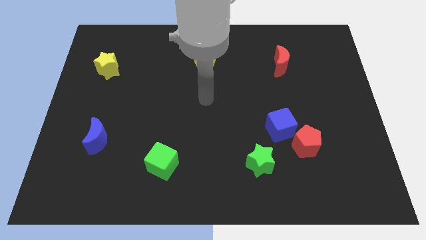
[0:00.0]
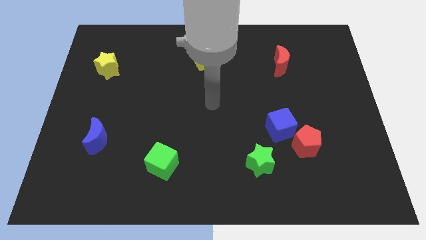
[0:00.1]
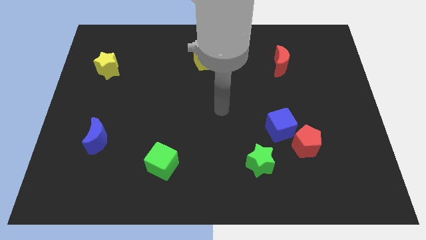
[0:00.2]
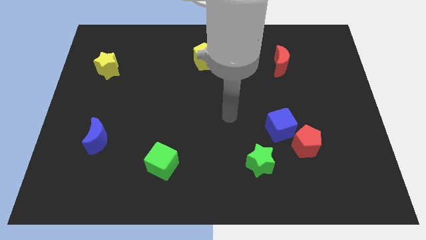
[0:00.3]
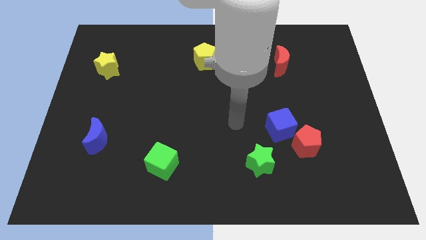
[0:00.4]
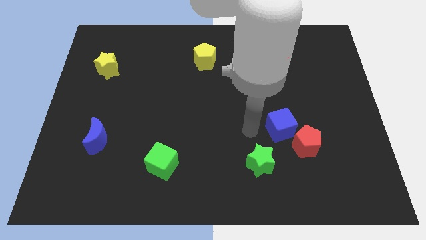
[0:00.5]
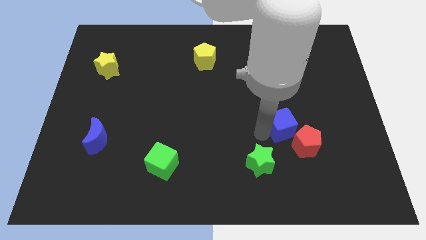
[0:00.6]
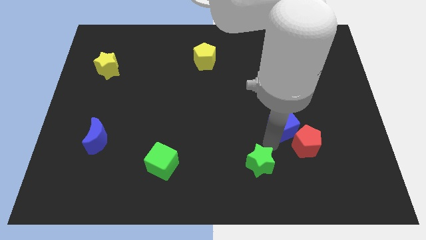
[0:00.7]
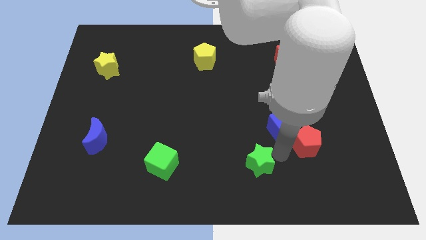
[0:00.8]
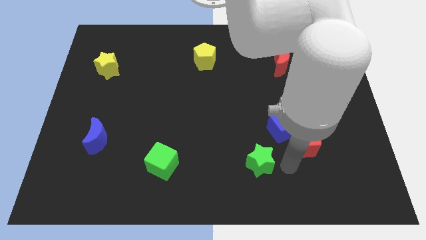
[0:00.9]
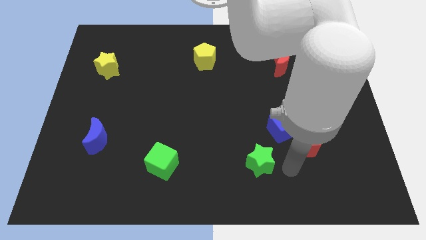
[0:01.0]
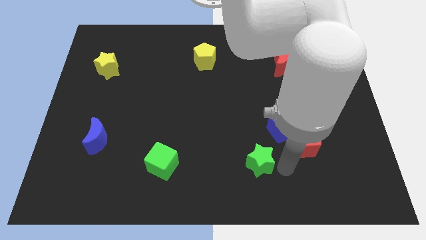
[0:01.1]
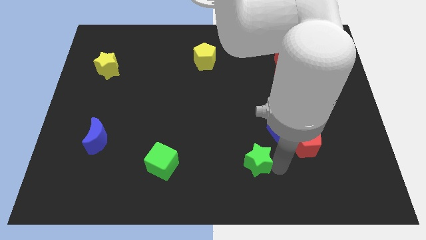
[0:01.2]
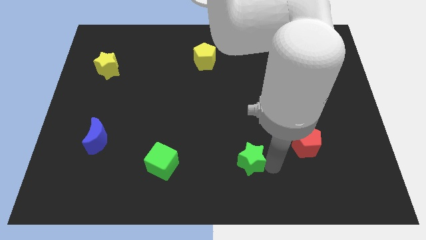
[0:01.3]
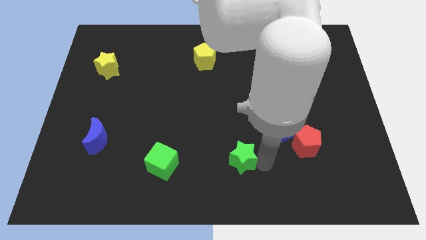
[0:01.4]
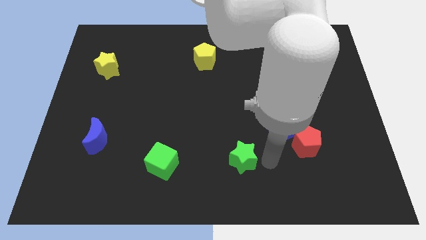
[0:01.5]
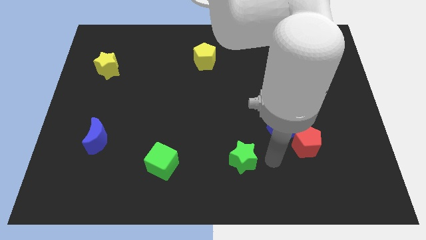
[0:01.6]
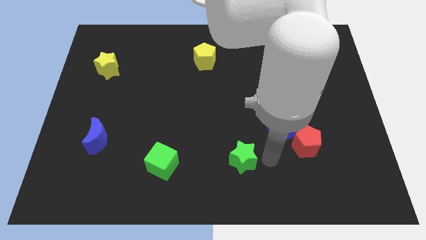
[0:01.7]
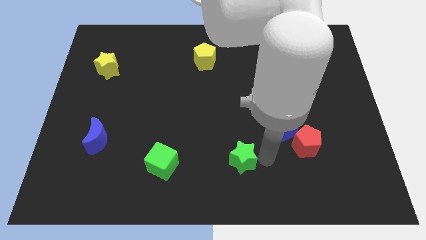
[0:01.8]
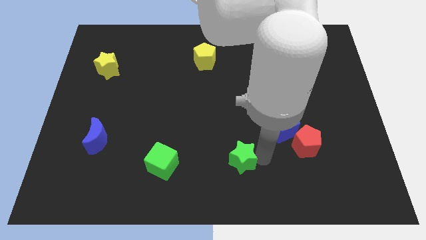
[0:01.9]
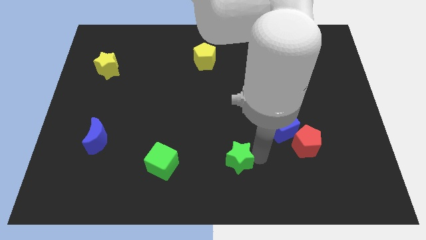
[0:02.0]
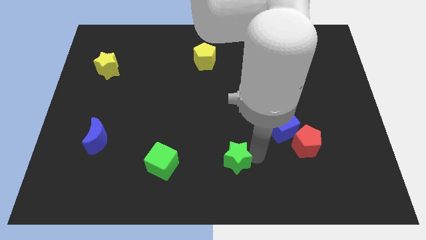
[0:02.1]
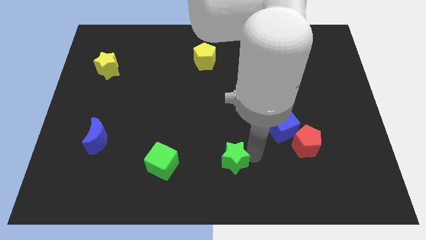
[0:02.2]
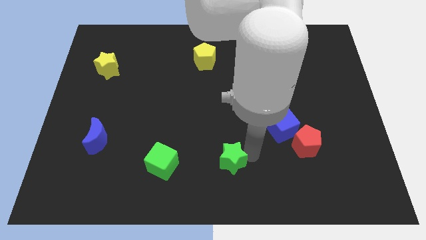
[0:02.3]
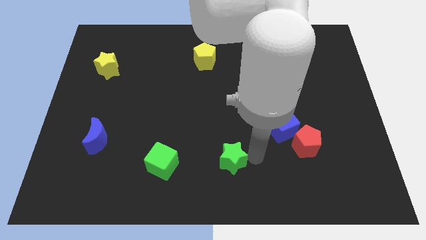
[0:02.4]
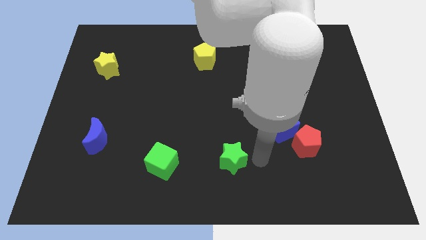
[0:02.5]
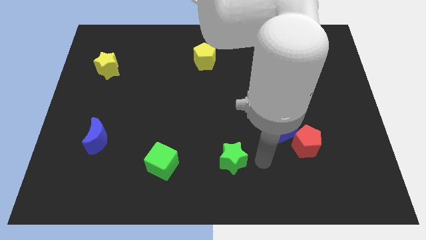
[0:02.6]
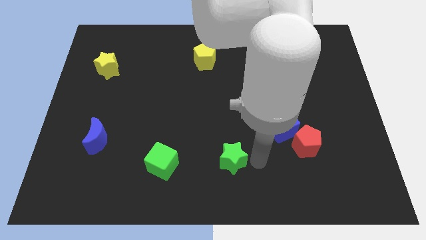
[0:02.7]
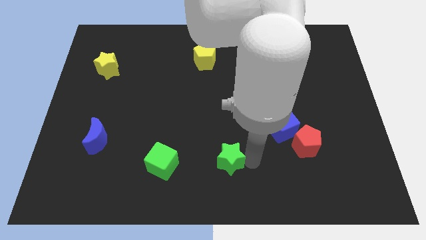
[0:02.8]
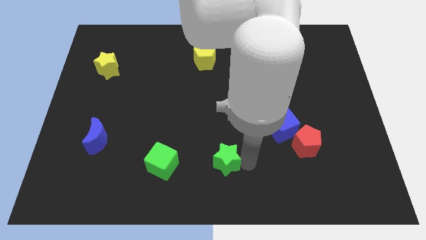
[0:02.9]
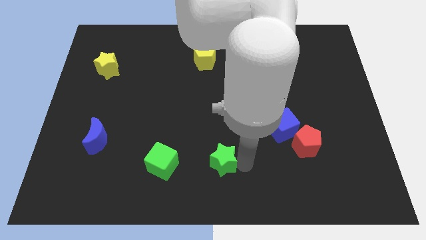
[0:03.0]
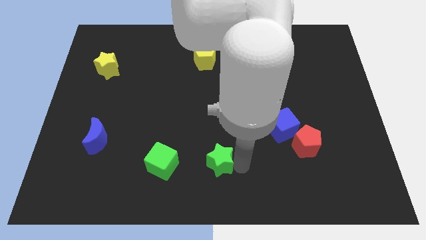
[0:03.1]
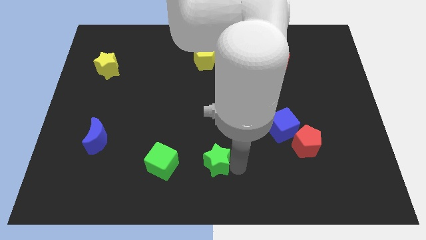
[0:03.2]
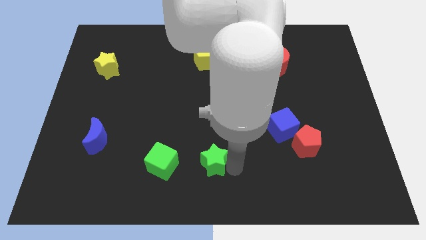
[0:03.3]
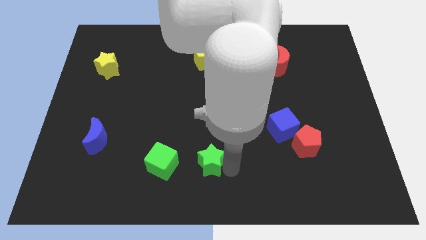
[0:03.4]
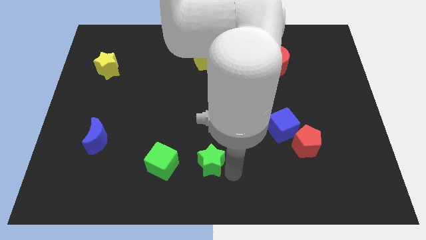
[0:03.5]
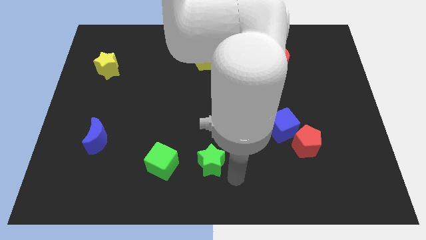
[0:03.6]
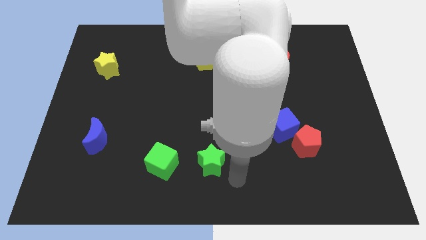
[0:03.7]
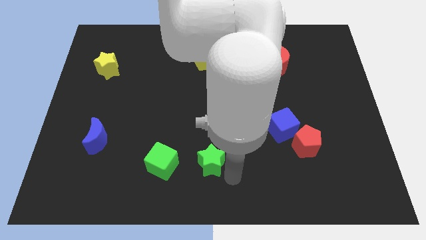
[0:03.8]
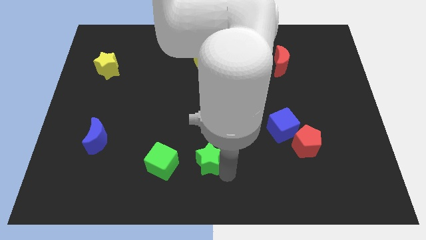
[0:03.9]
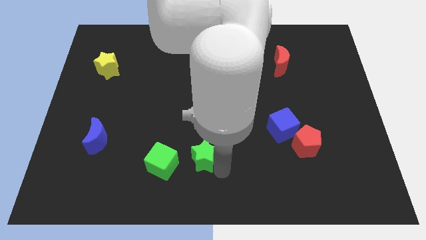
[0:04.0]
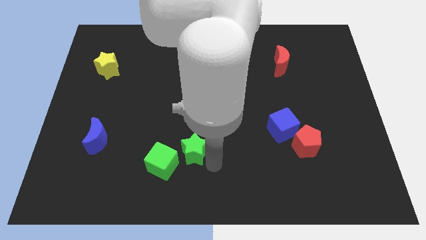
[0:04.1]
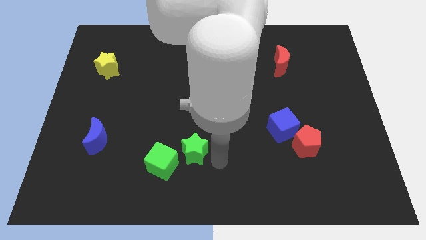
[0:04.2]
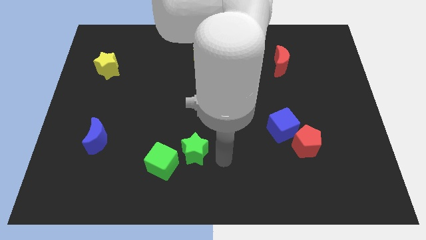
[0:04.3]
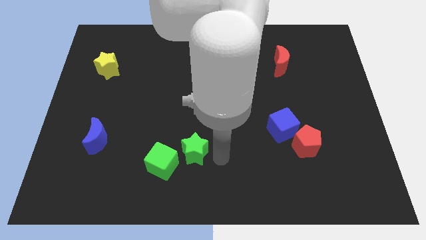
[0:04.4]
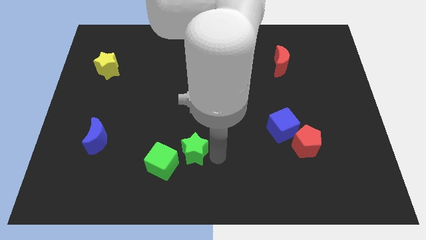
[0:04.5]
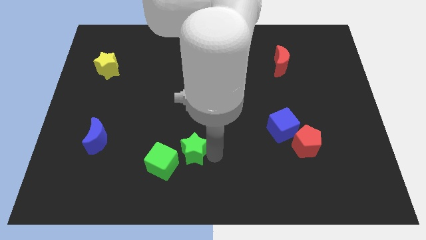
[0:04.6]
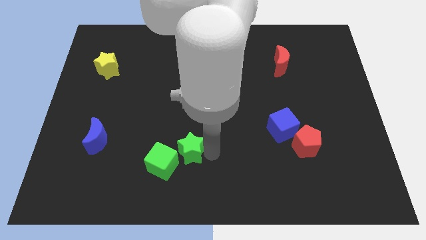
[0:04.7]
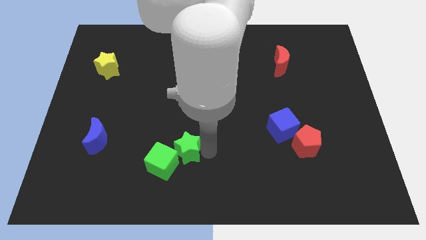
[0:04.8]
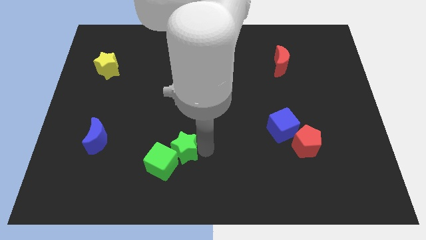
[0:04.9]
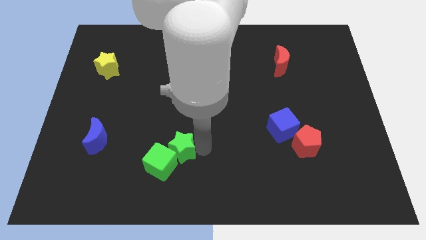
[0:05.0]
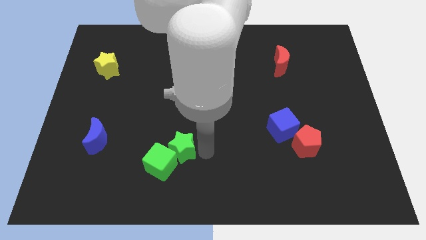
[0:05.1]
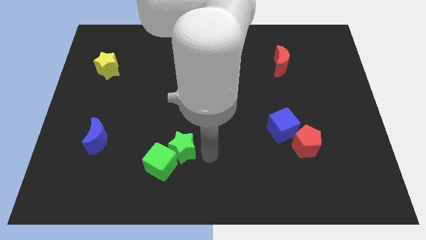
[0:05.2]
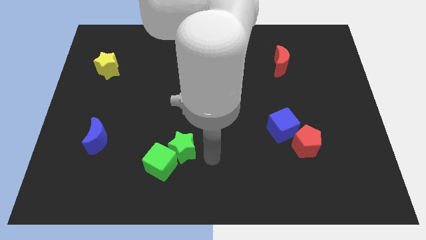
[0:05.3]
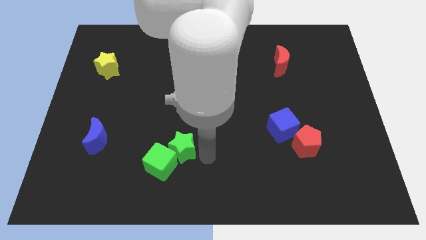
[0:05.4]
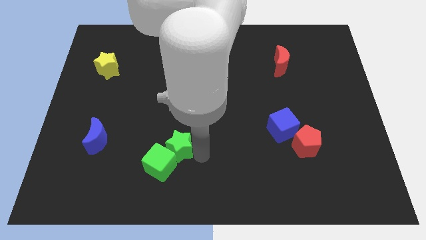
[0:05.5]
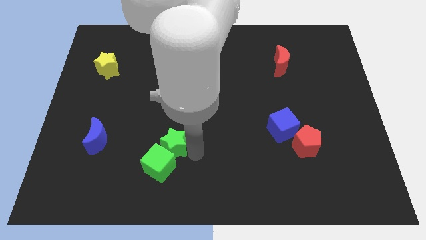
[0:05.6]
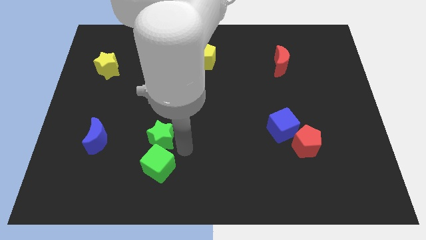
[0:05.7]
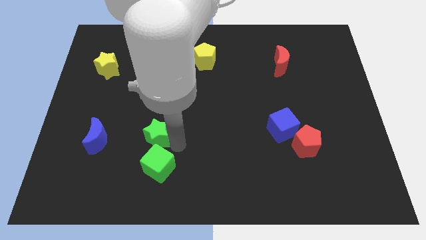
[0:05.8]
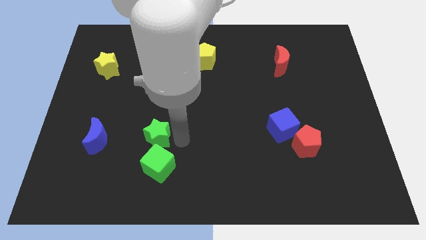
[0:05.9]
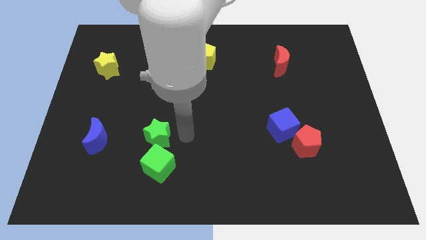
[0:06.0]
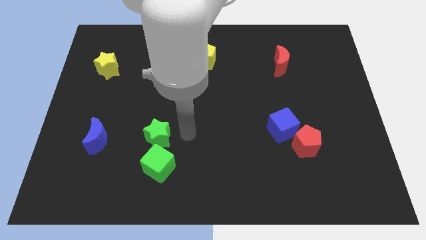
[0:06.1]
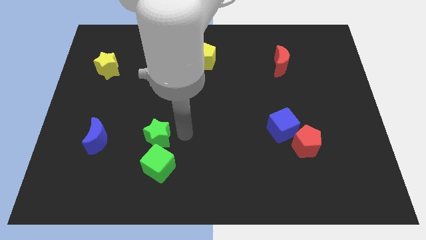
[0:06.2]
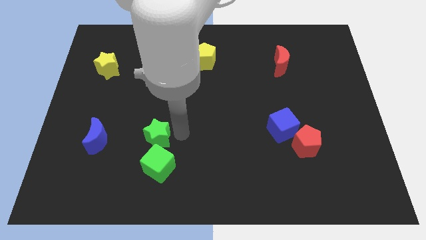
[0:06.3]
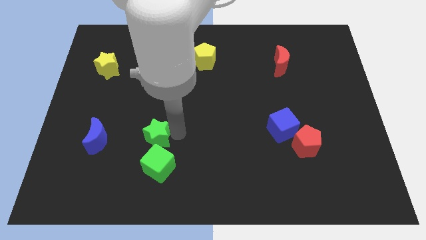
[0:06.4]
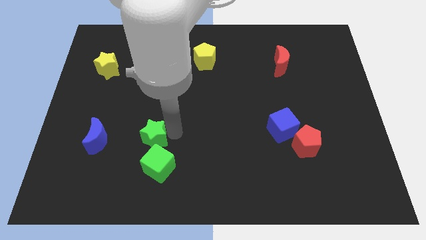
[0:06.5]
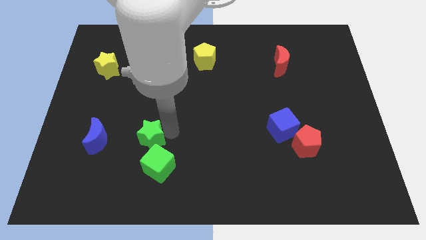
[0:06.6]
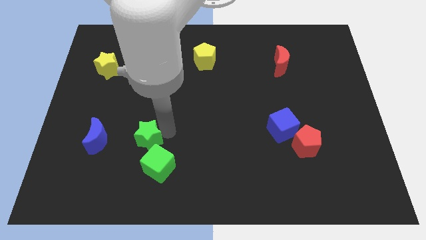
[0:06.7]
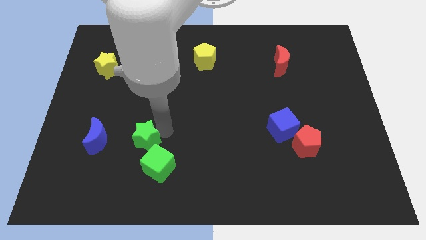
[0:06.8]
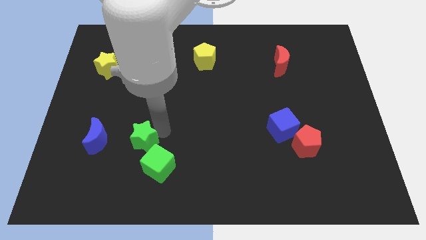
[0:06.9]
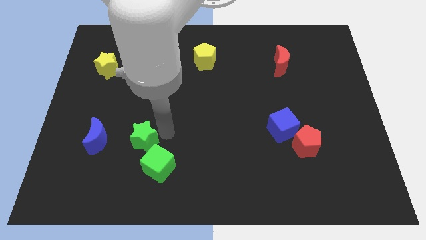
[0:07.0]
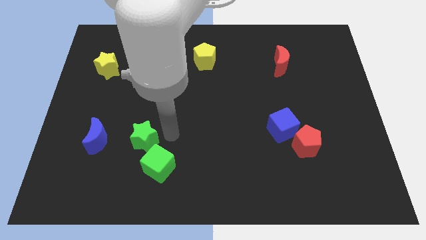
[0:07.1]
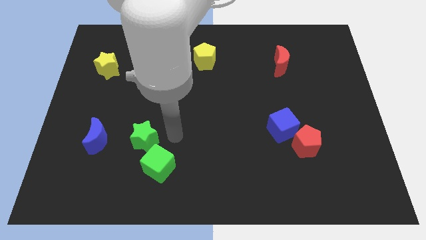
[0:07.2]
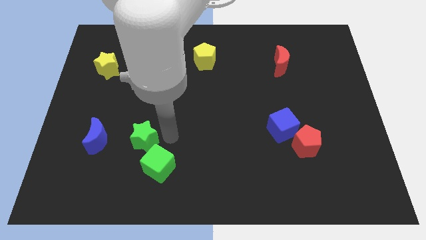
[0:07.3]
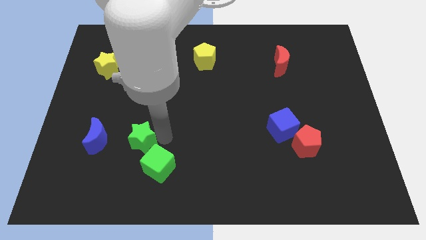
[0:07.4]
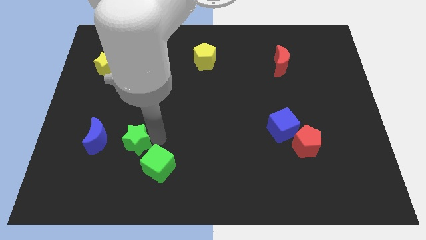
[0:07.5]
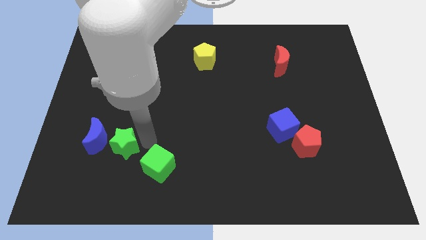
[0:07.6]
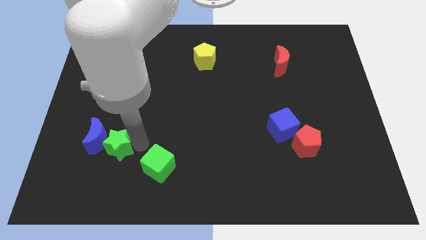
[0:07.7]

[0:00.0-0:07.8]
put the green star next to the blue moon

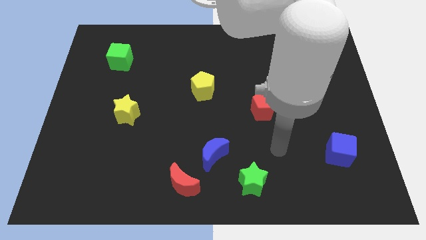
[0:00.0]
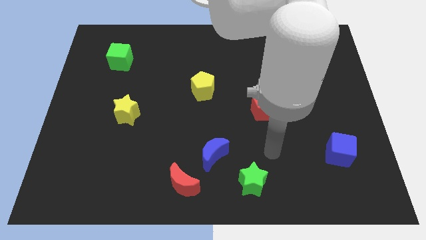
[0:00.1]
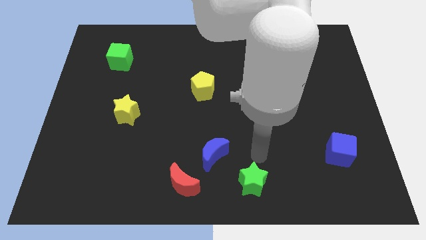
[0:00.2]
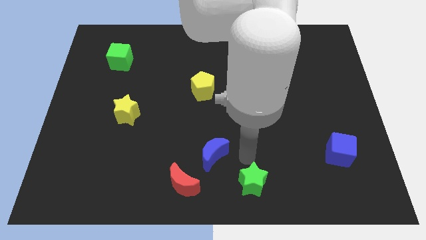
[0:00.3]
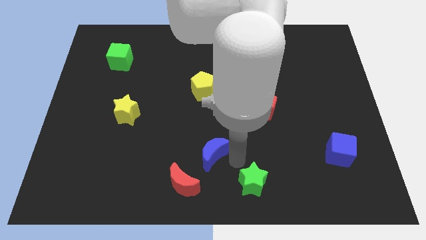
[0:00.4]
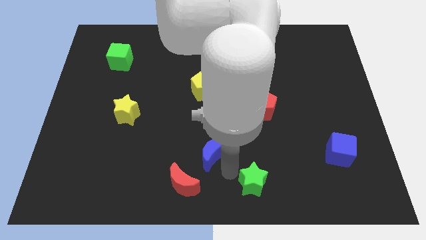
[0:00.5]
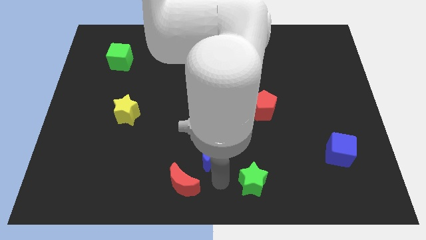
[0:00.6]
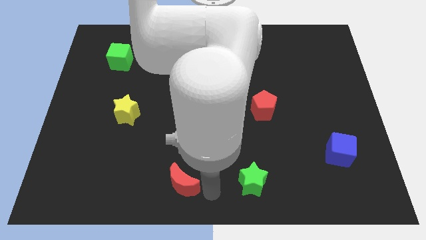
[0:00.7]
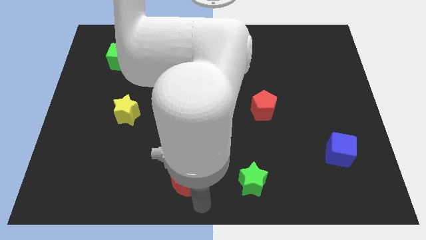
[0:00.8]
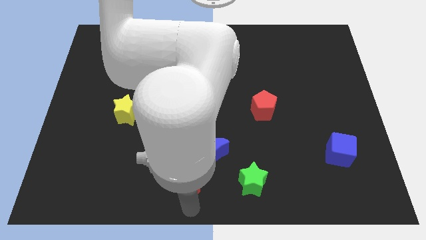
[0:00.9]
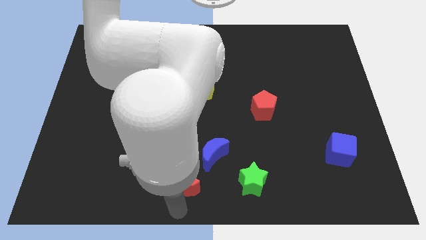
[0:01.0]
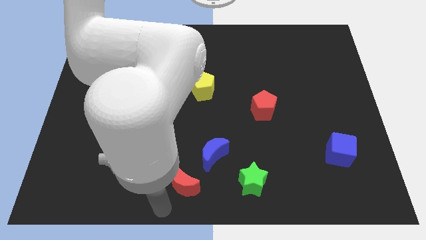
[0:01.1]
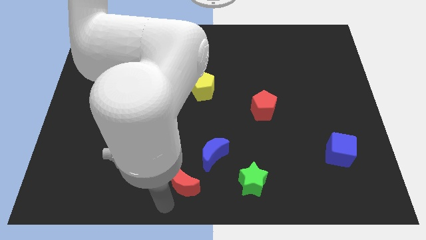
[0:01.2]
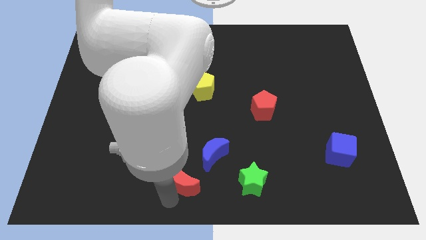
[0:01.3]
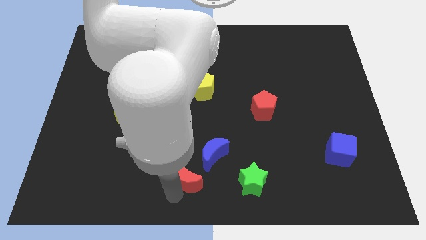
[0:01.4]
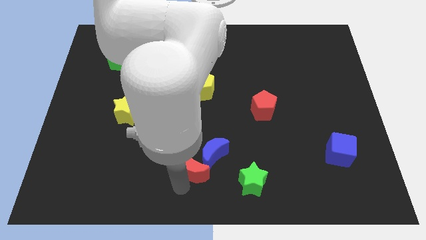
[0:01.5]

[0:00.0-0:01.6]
slide the red moon close to the blue moon
